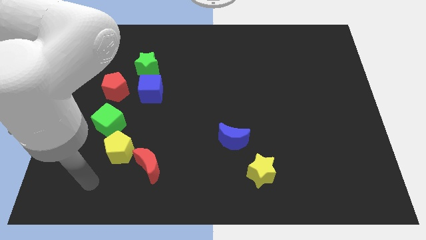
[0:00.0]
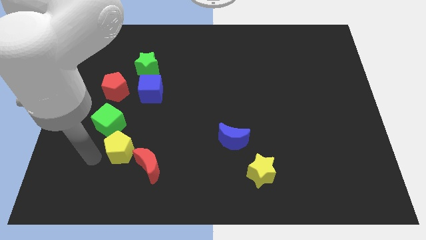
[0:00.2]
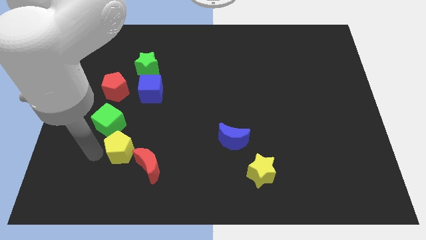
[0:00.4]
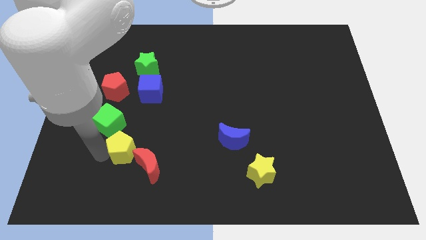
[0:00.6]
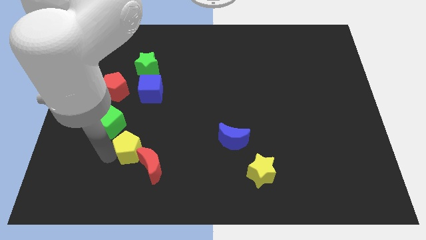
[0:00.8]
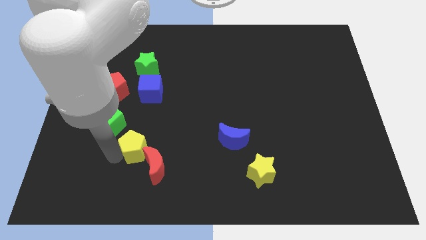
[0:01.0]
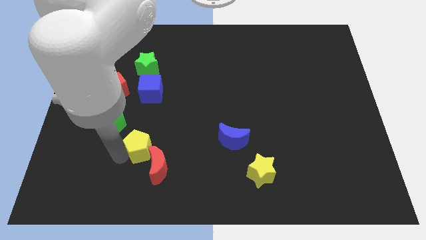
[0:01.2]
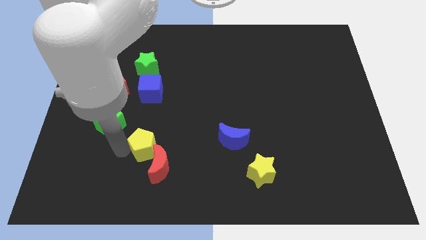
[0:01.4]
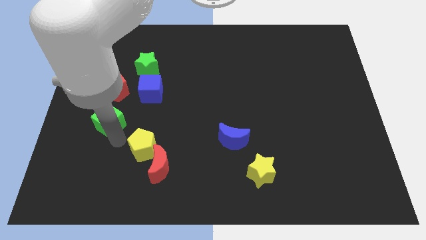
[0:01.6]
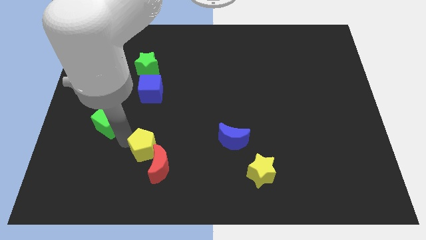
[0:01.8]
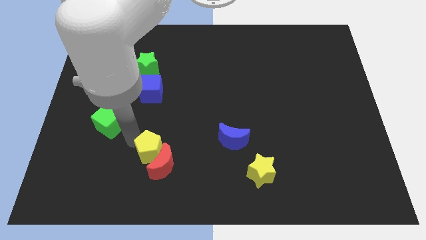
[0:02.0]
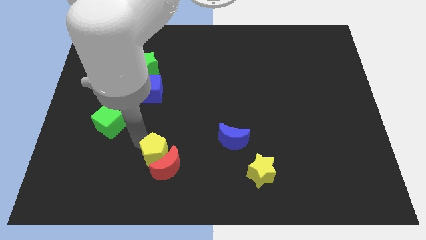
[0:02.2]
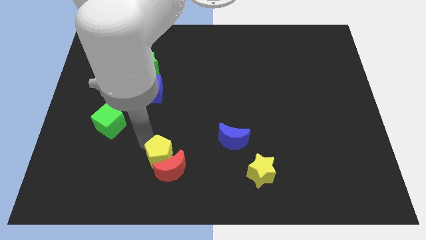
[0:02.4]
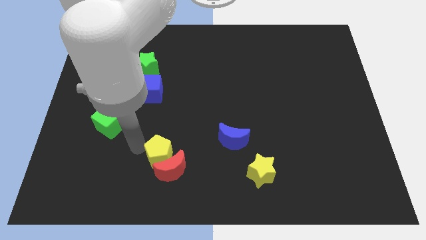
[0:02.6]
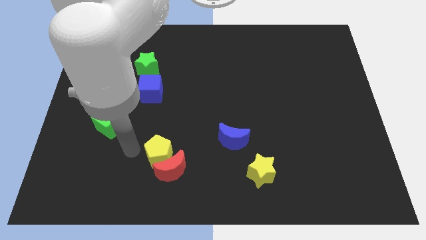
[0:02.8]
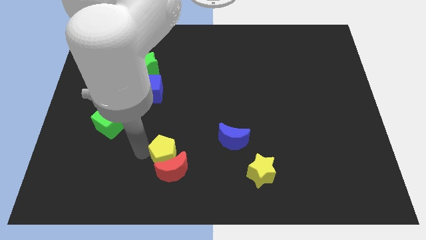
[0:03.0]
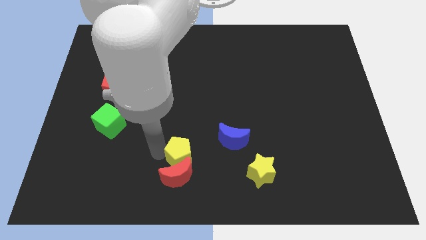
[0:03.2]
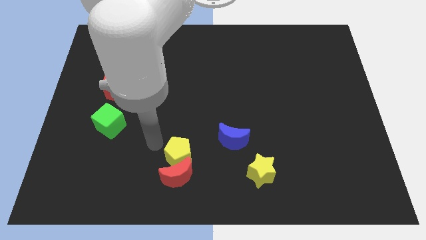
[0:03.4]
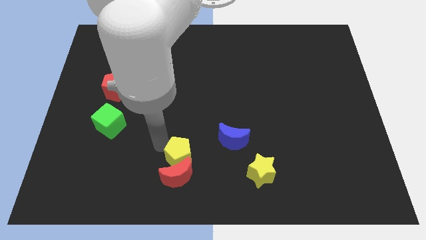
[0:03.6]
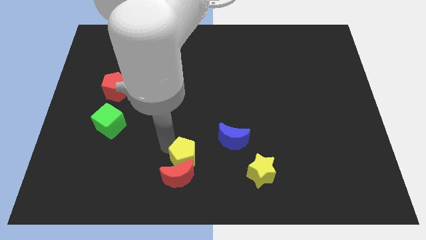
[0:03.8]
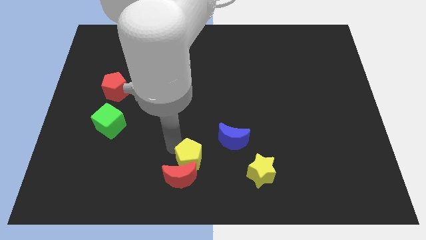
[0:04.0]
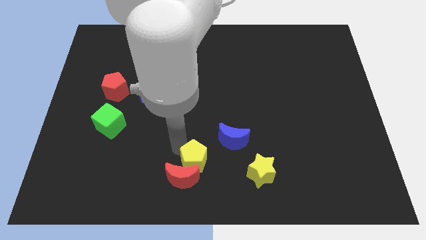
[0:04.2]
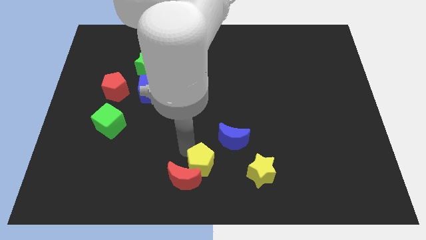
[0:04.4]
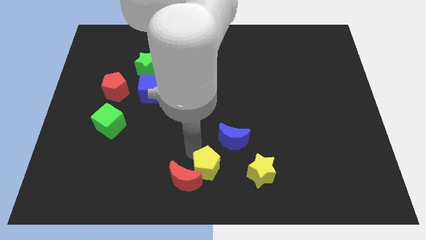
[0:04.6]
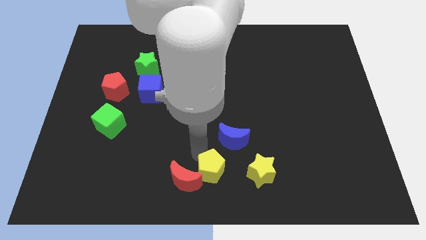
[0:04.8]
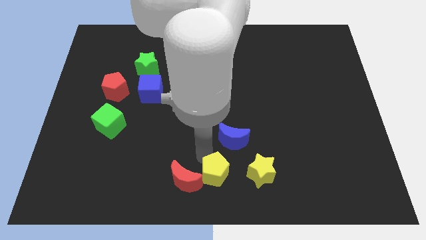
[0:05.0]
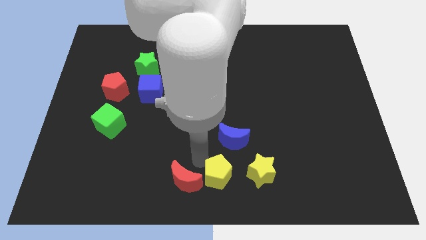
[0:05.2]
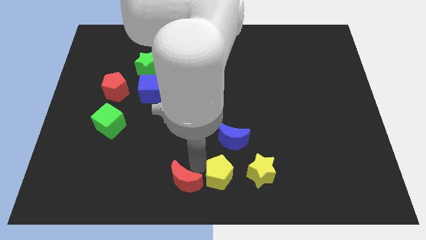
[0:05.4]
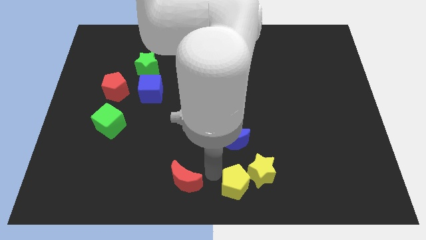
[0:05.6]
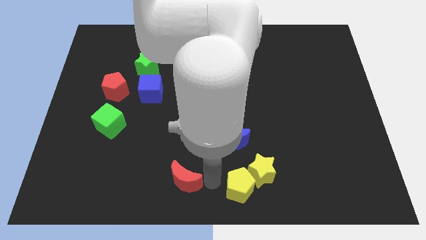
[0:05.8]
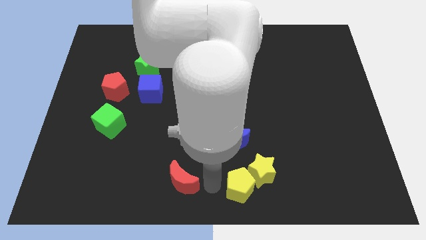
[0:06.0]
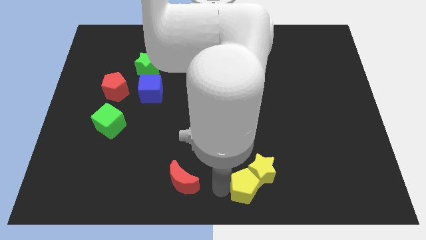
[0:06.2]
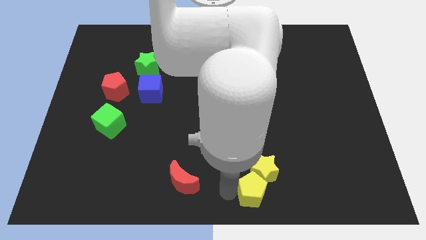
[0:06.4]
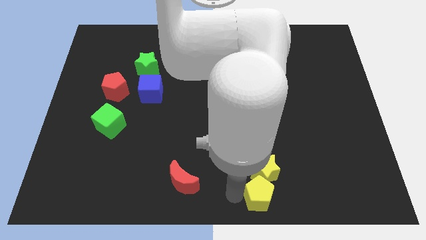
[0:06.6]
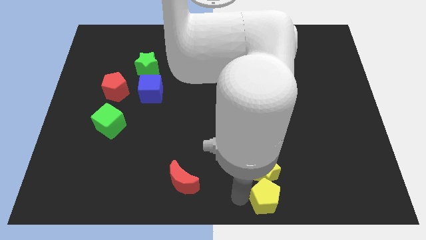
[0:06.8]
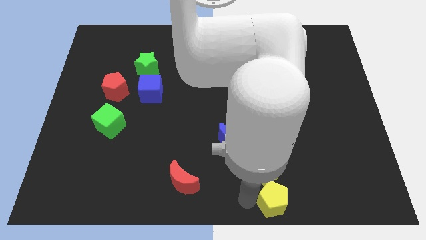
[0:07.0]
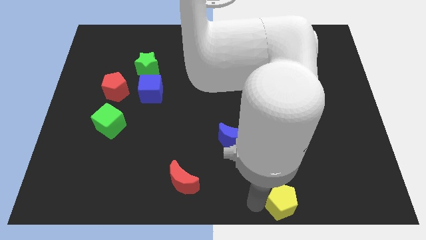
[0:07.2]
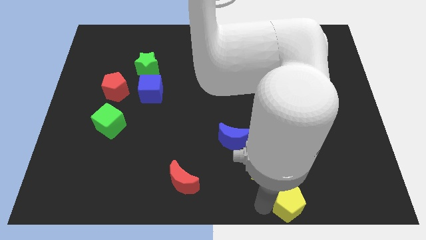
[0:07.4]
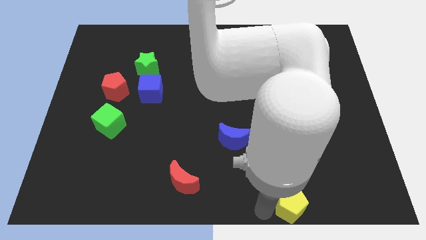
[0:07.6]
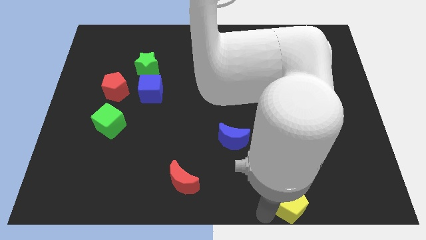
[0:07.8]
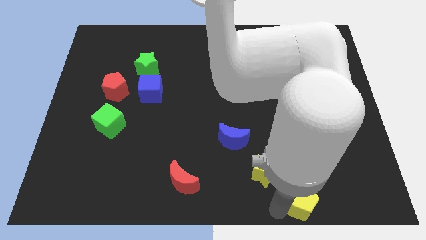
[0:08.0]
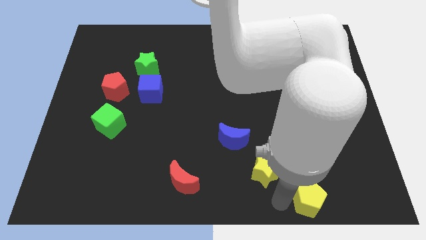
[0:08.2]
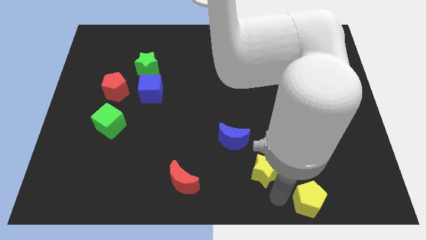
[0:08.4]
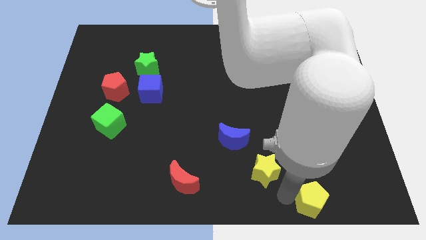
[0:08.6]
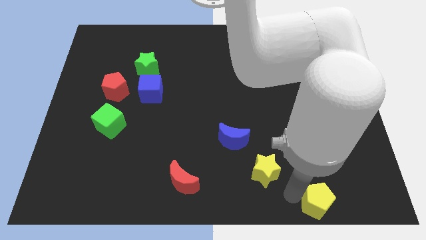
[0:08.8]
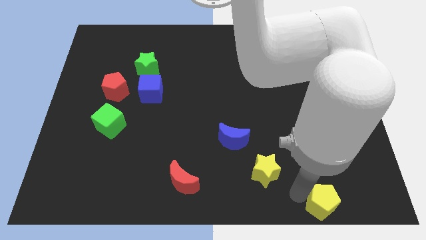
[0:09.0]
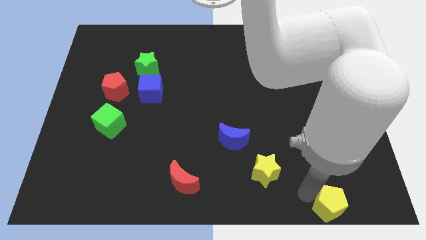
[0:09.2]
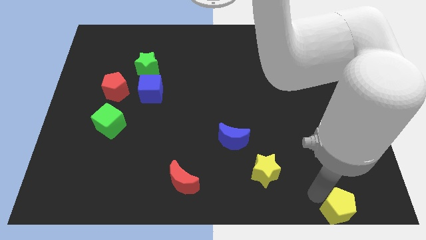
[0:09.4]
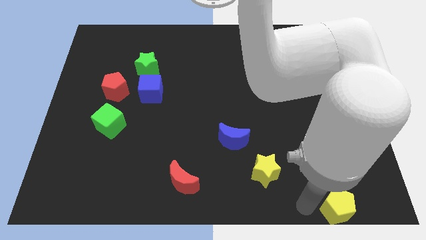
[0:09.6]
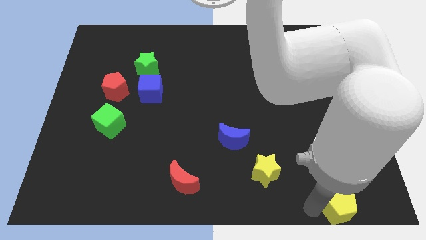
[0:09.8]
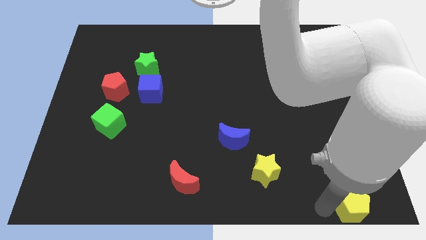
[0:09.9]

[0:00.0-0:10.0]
slide the yellow pentagon to the bottom right corner
